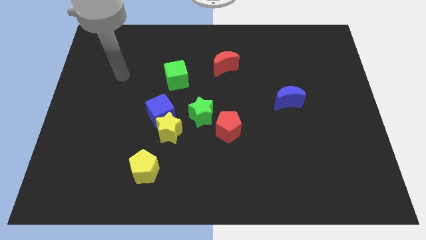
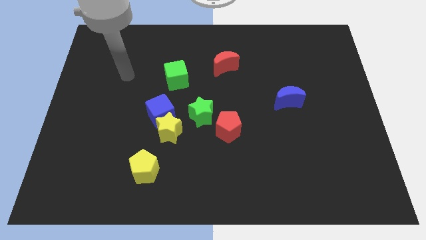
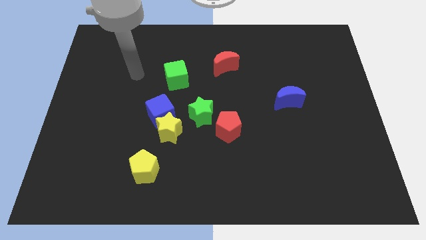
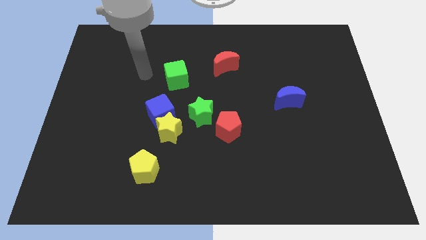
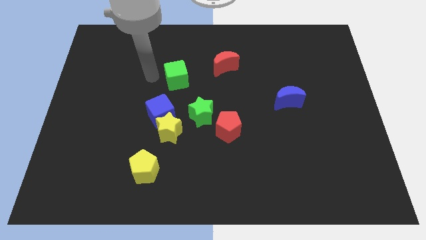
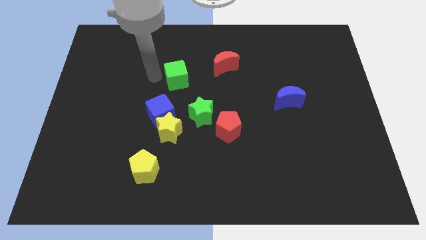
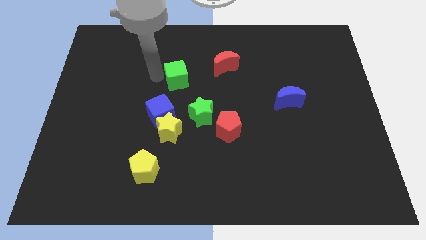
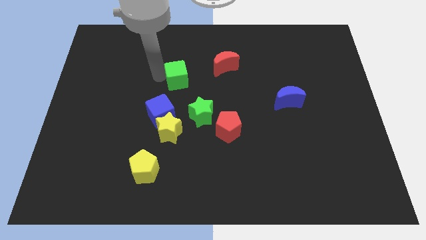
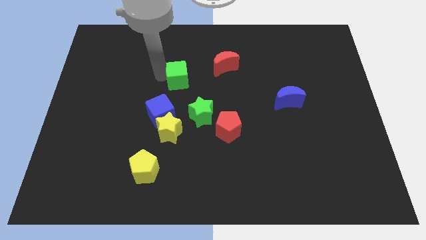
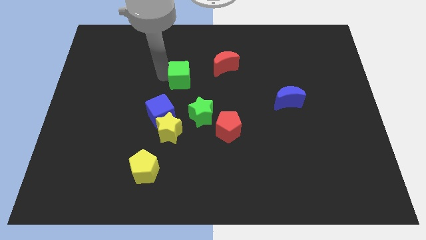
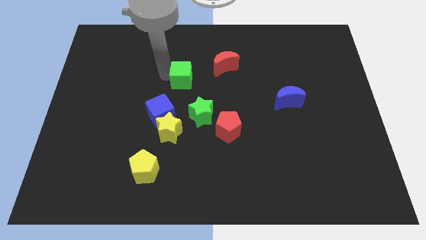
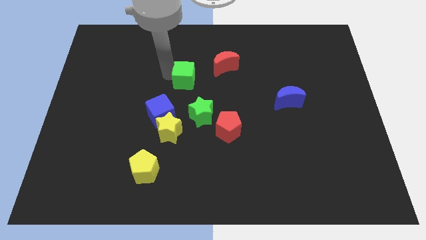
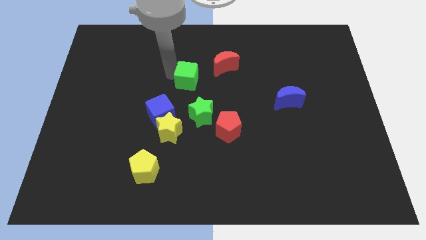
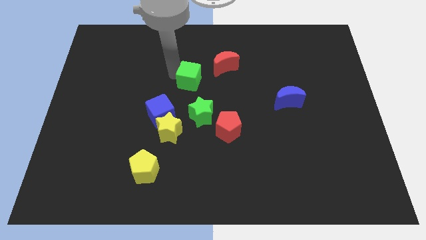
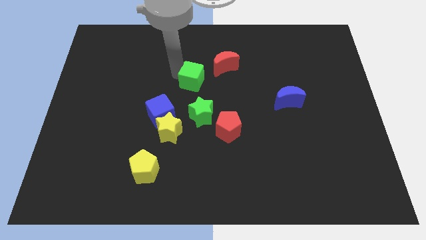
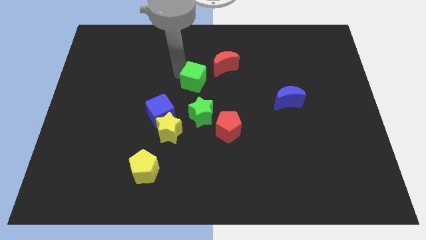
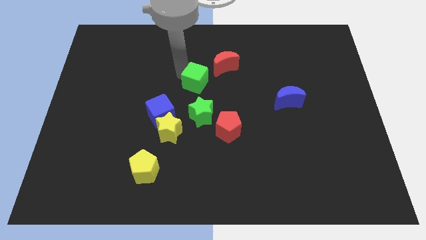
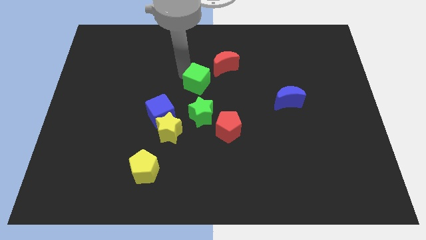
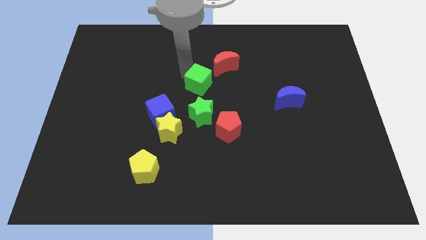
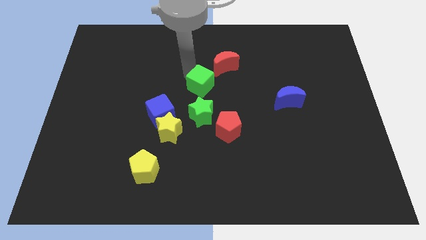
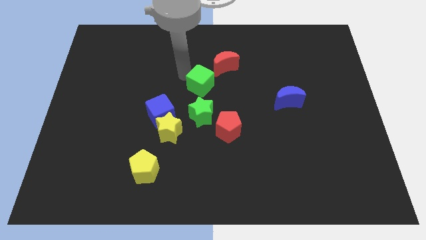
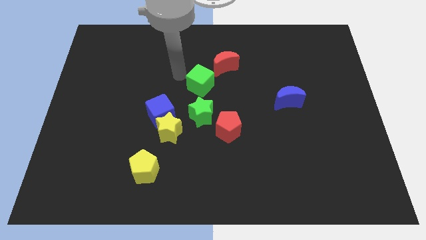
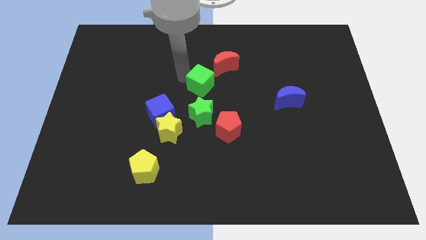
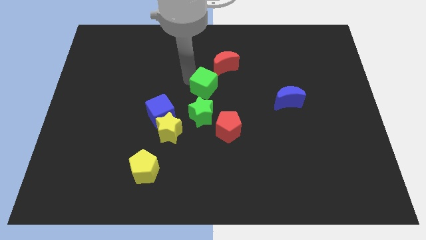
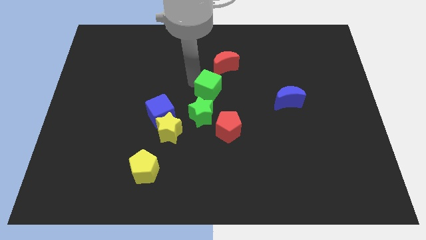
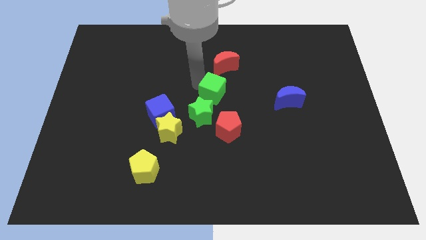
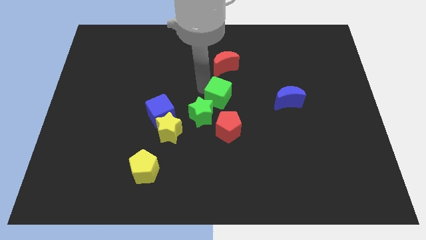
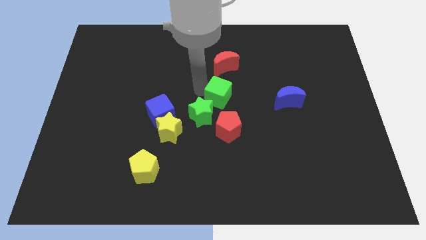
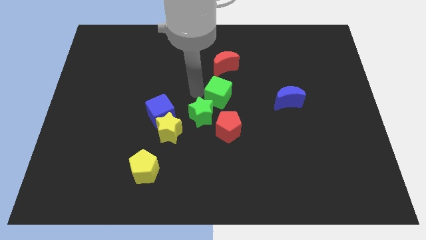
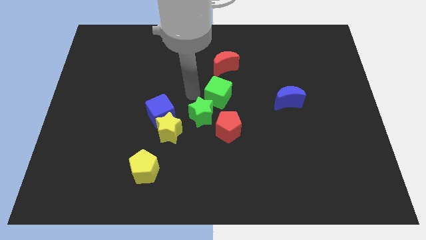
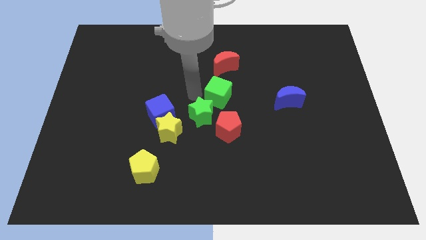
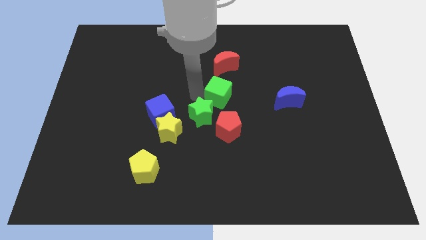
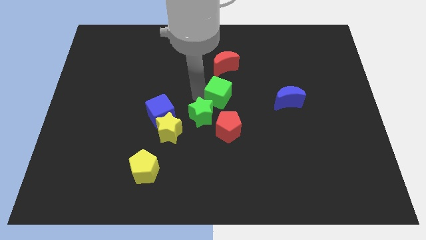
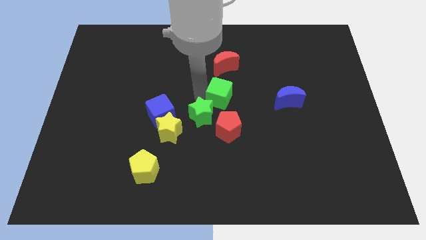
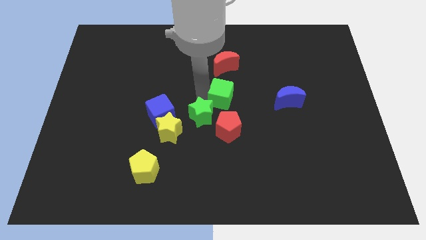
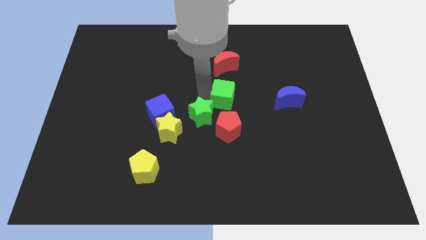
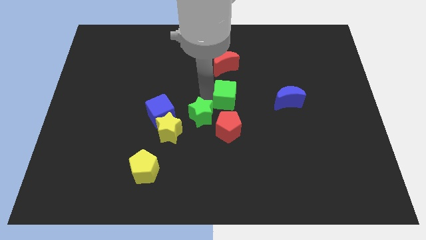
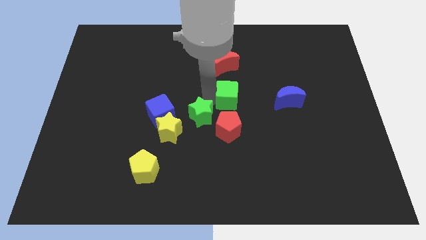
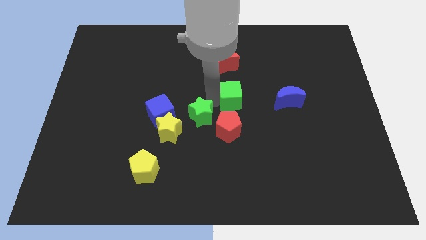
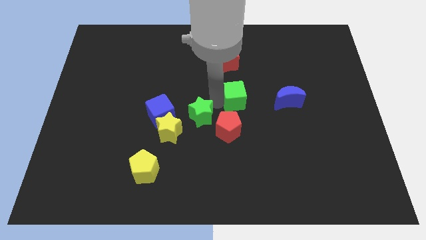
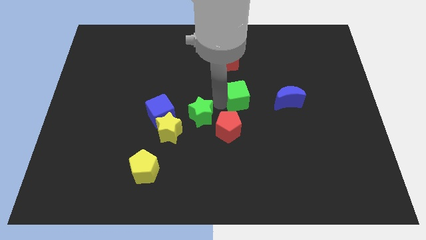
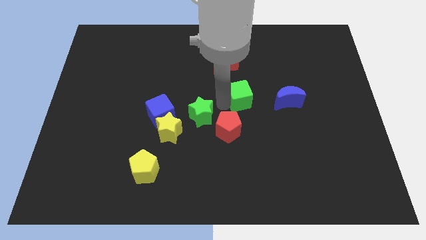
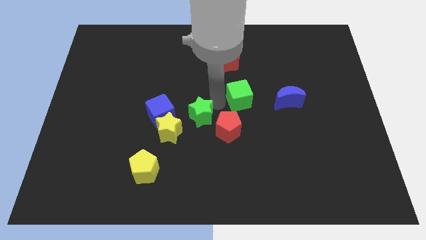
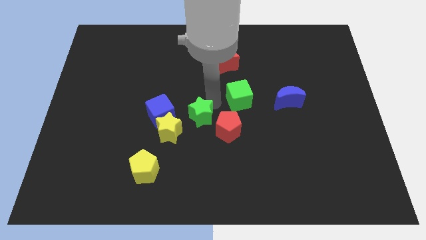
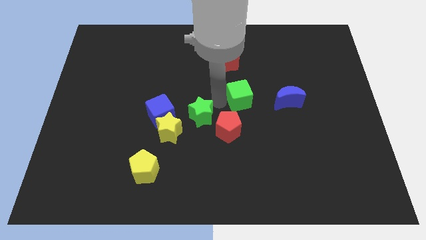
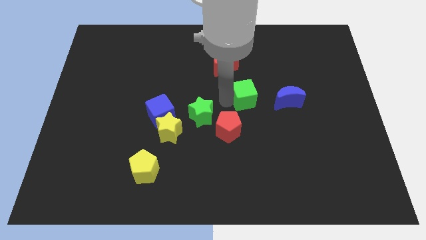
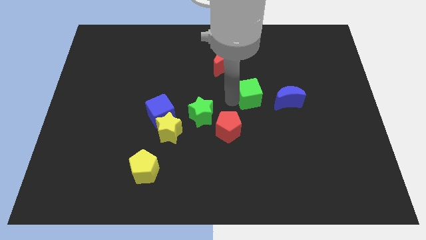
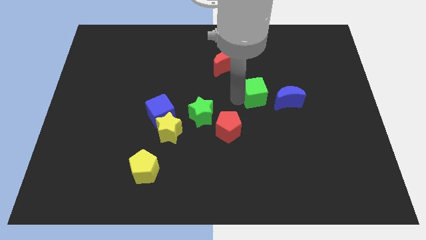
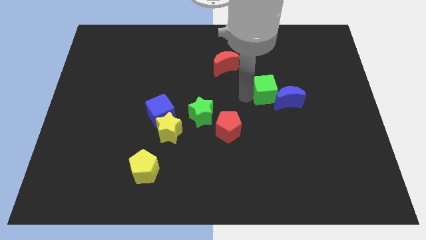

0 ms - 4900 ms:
put the green cube next to the blue moon

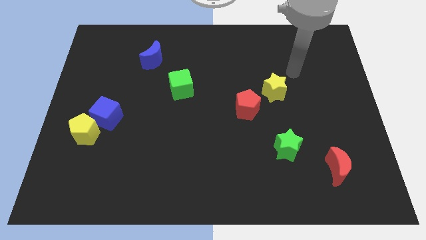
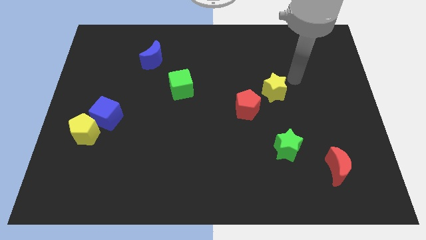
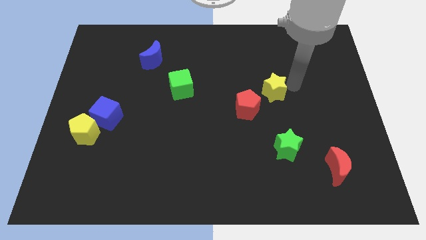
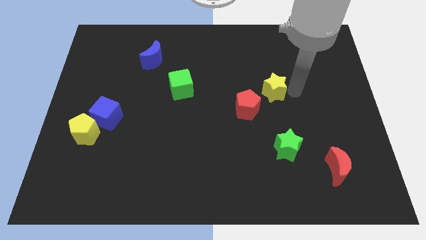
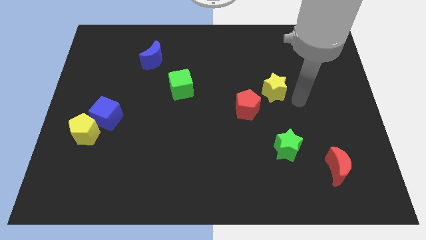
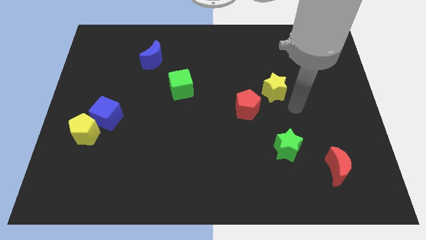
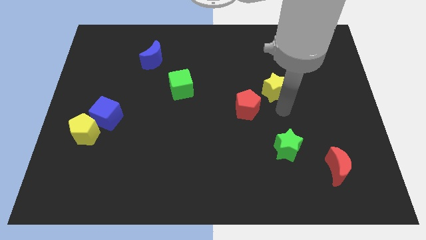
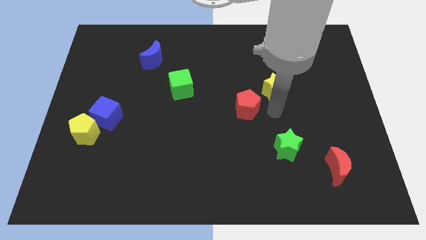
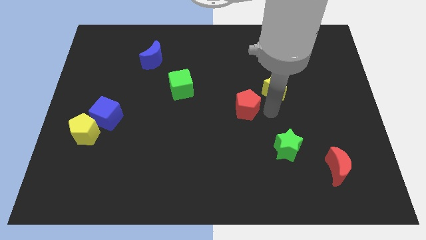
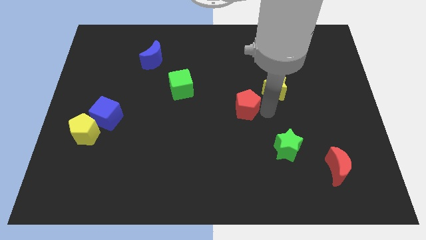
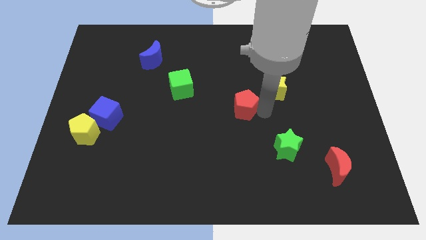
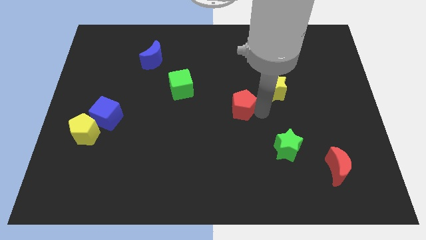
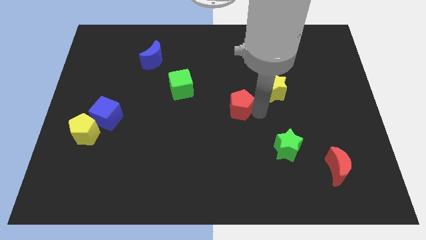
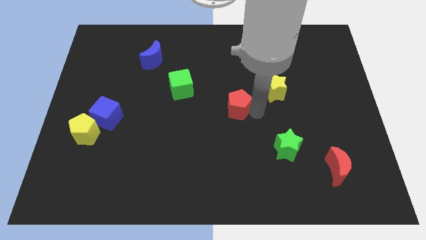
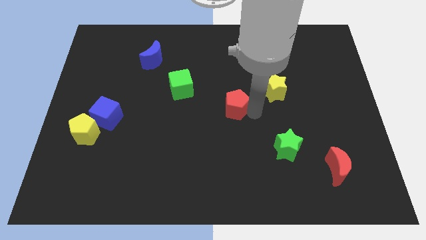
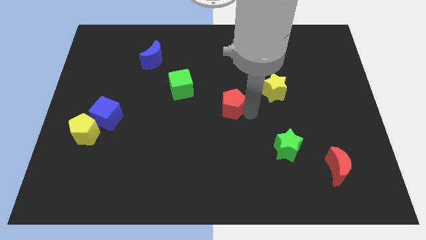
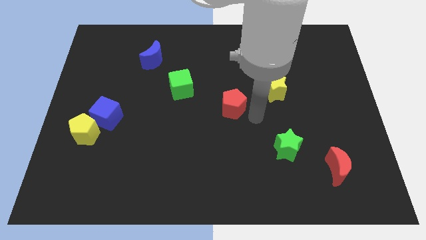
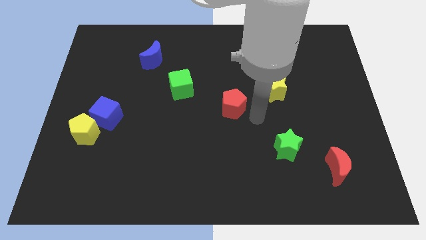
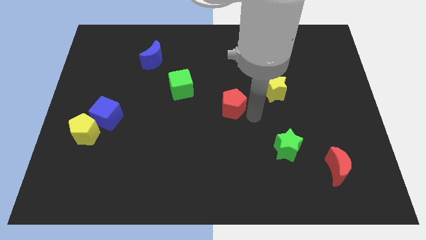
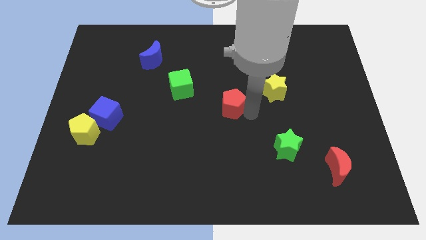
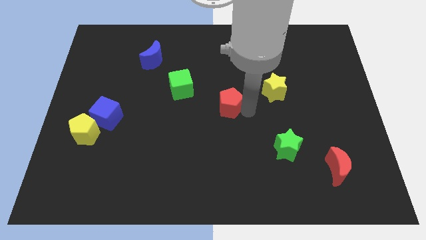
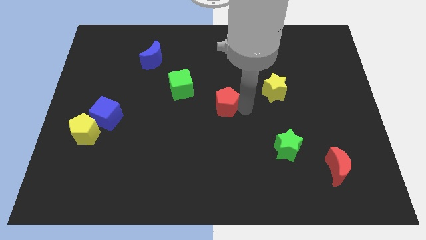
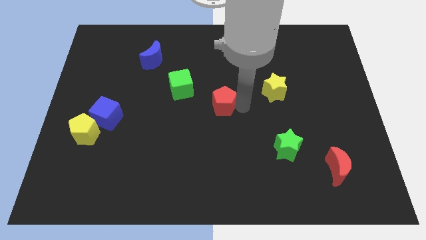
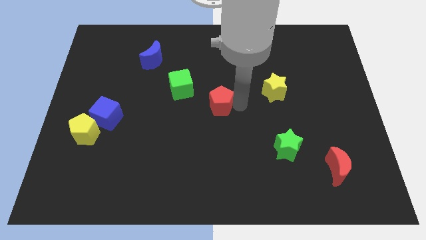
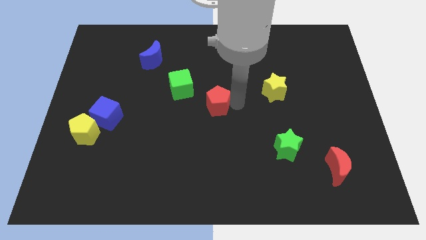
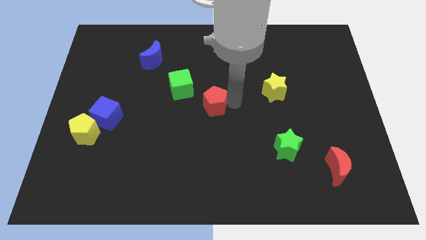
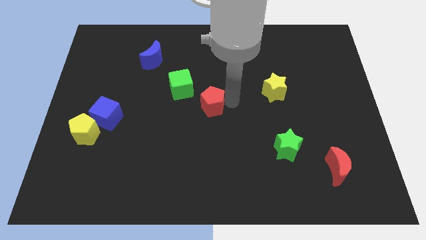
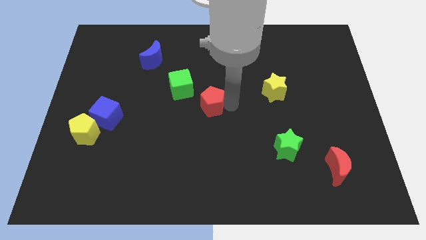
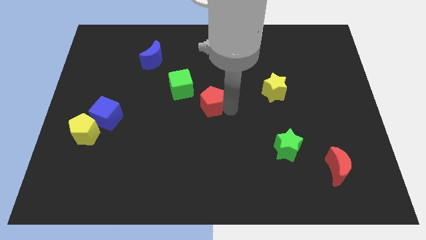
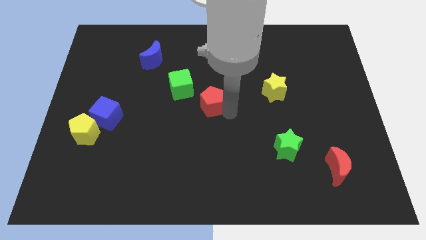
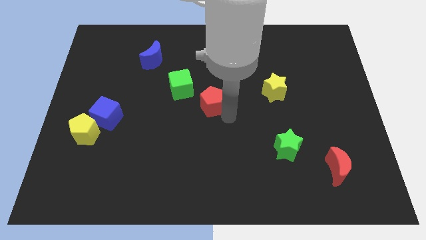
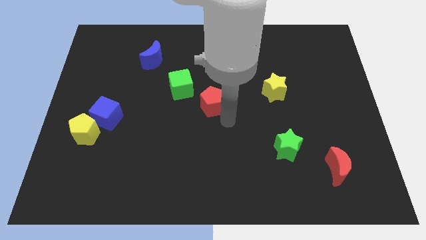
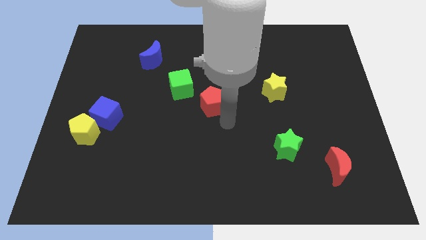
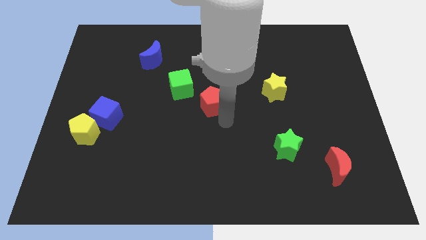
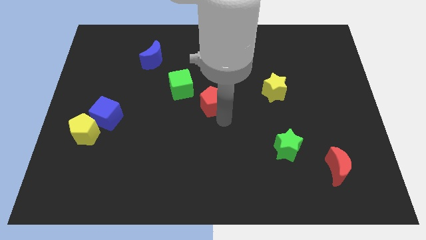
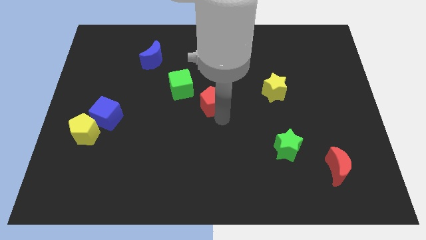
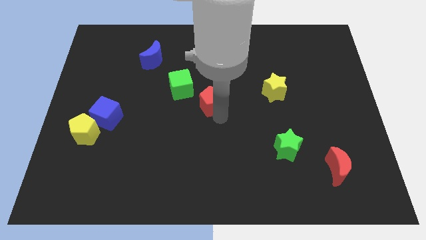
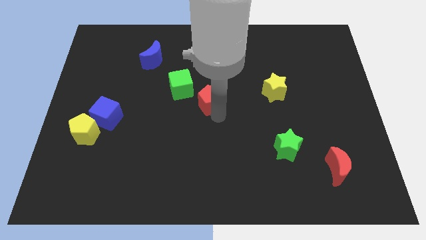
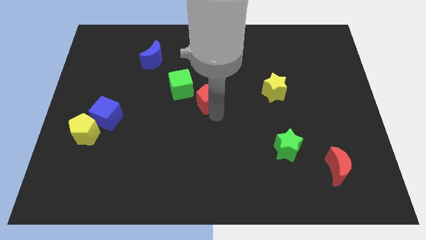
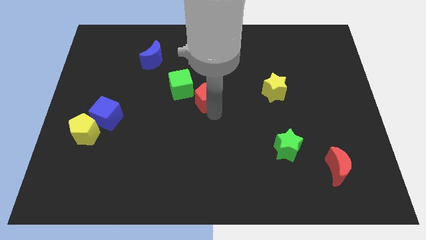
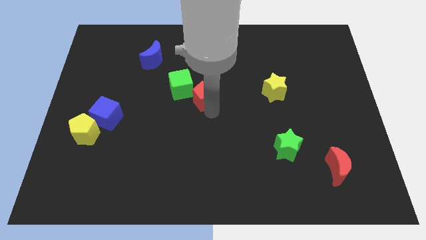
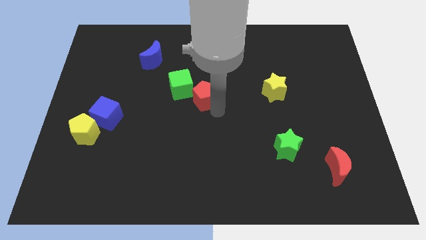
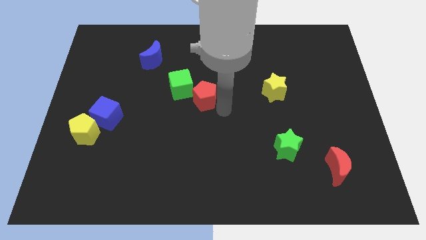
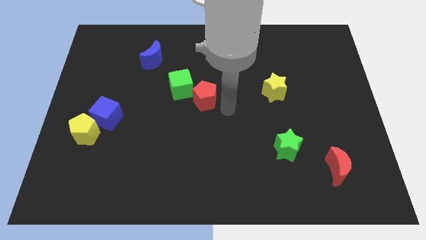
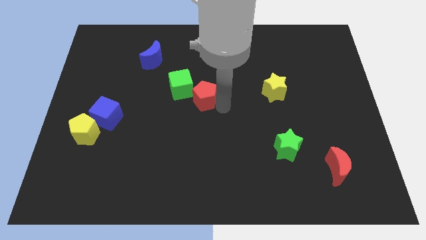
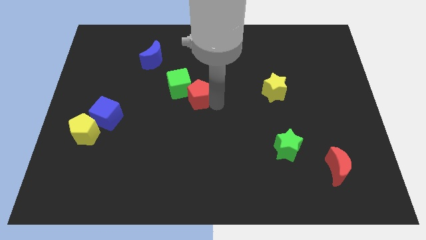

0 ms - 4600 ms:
slide the red pentagon close to the green cube
